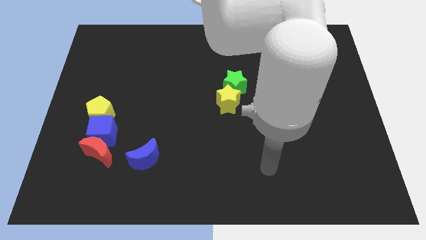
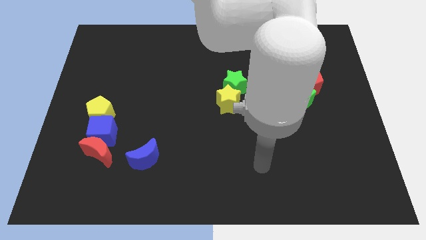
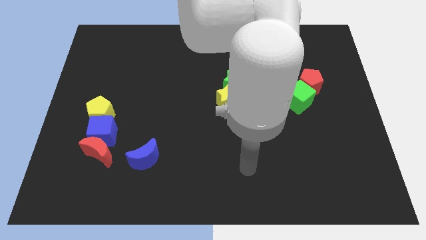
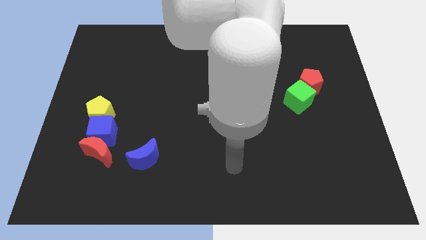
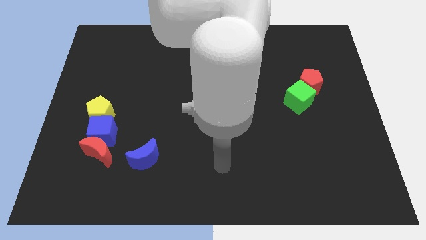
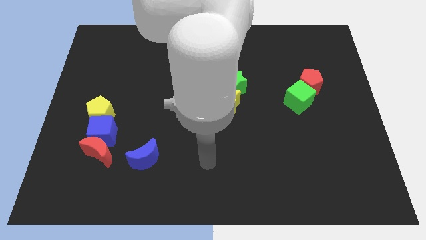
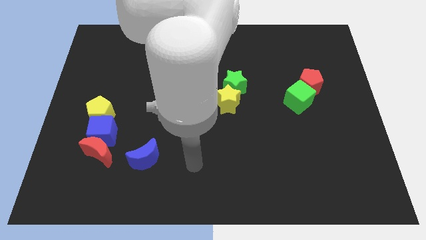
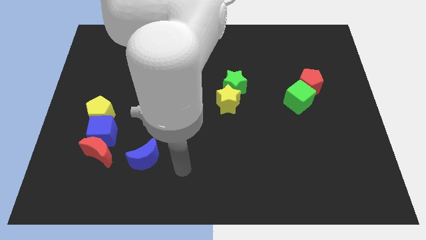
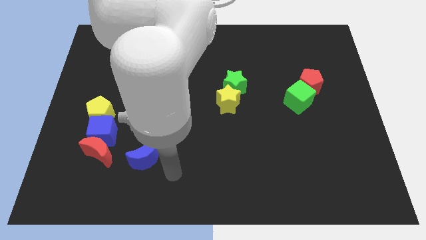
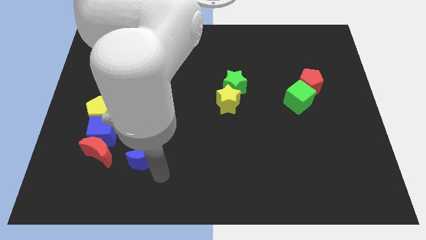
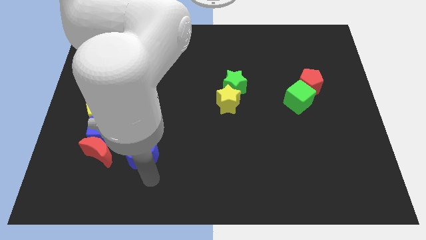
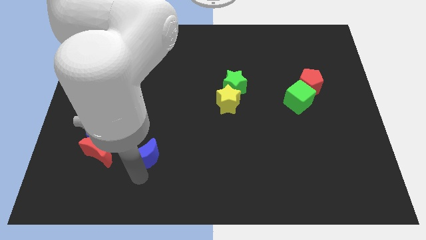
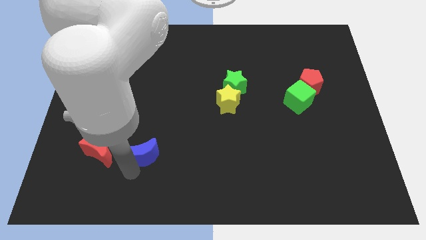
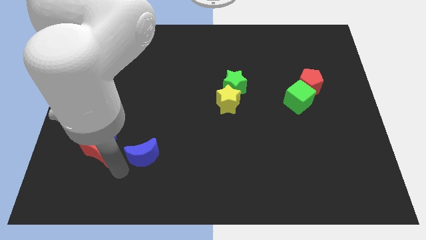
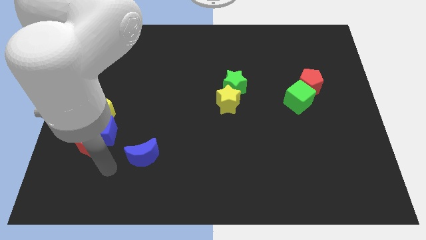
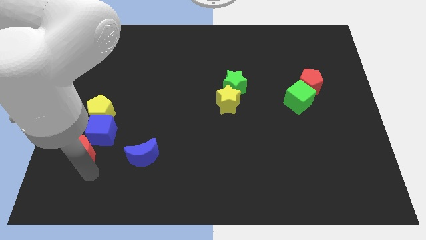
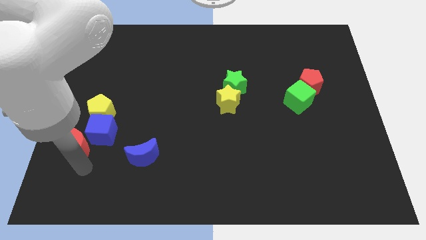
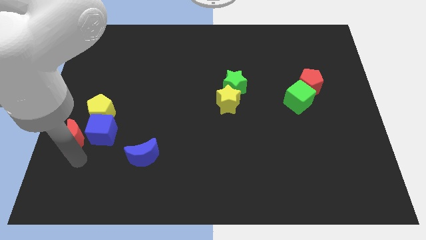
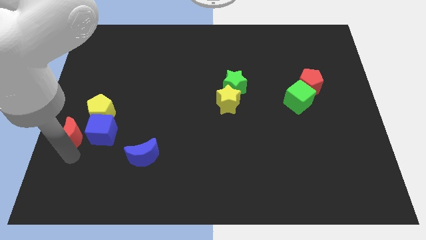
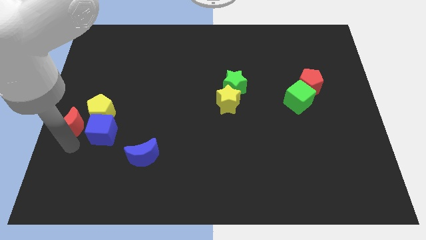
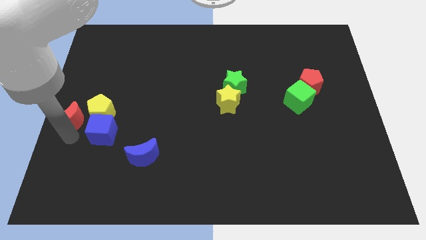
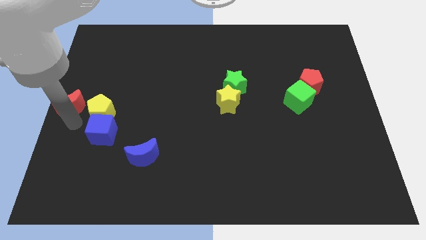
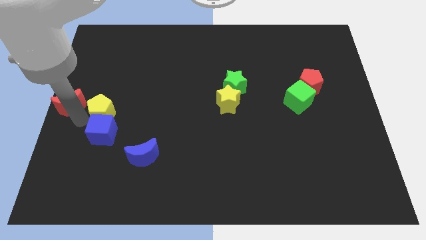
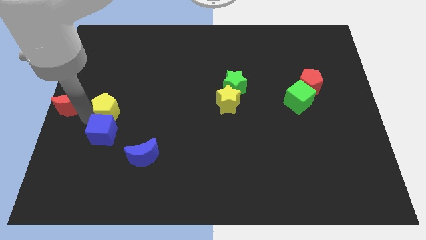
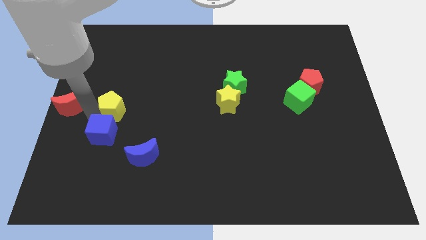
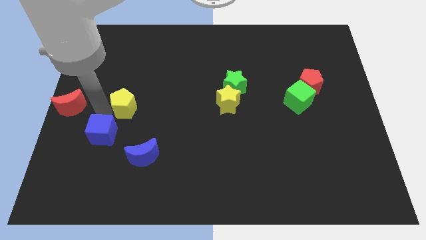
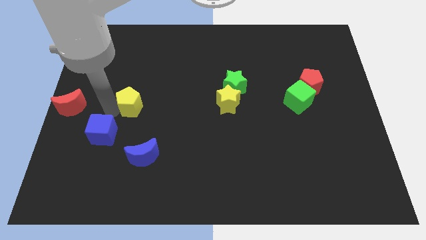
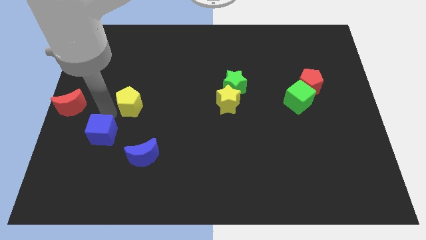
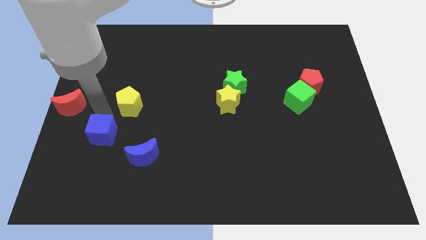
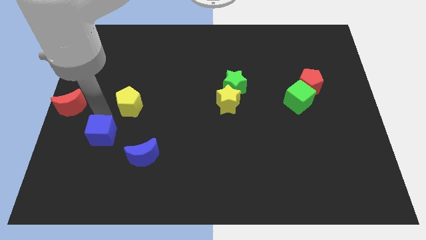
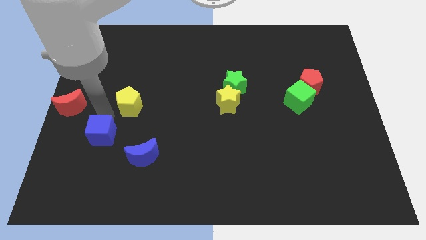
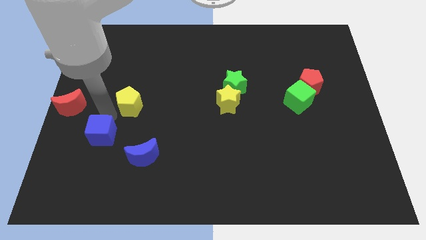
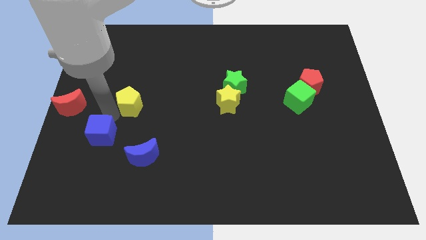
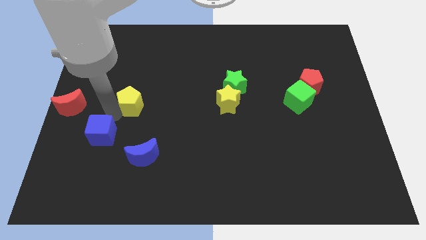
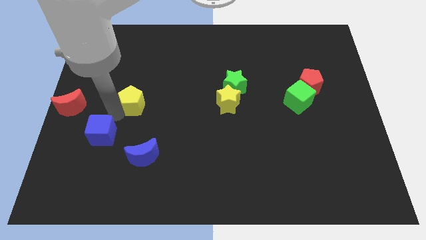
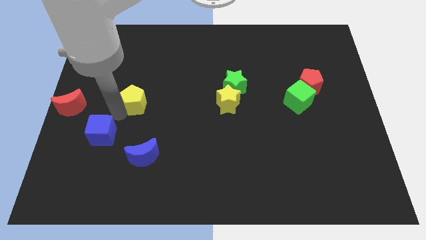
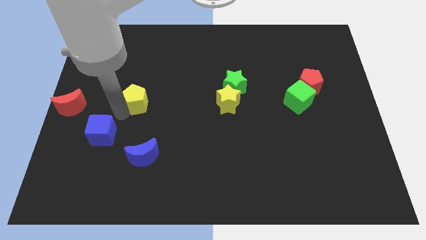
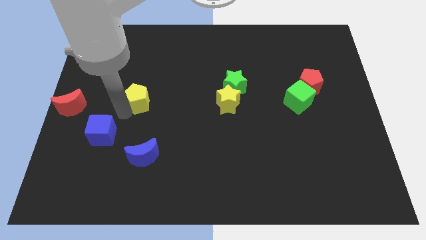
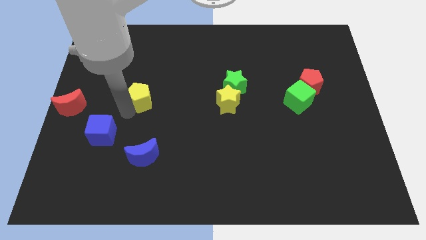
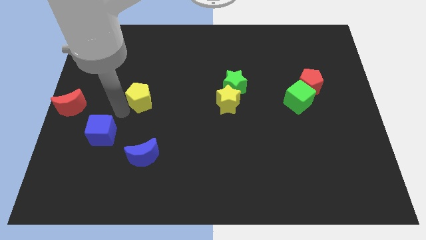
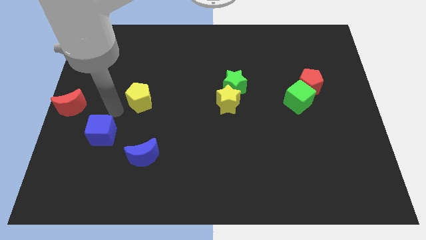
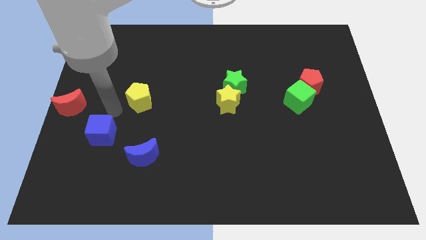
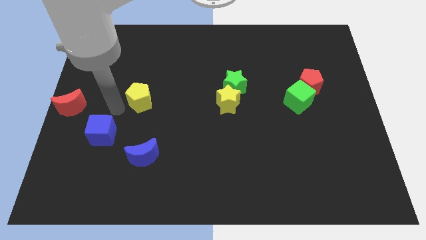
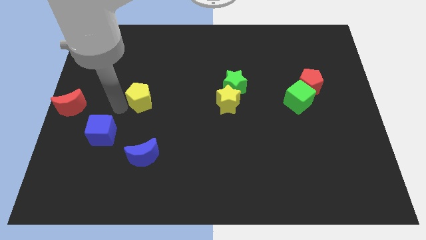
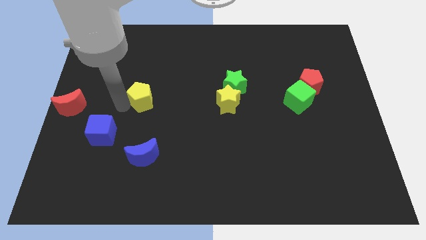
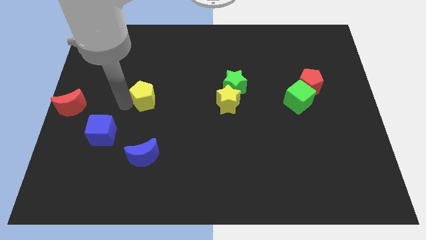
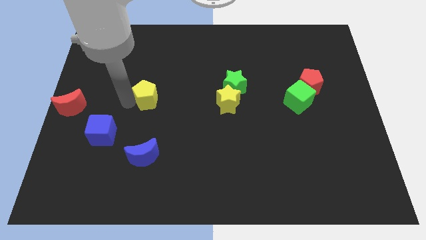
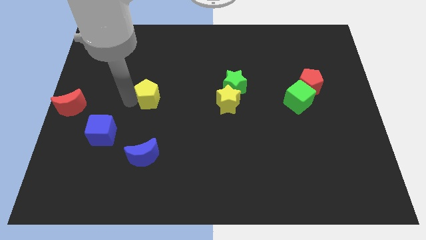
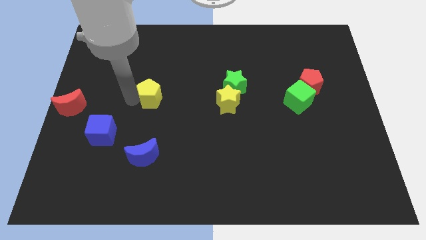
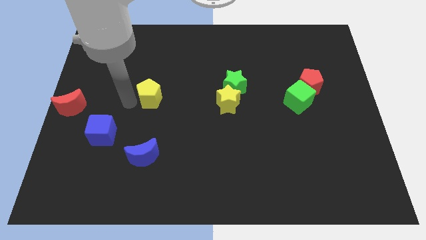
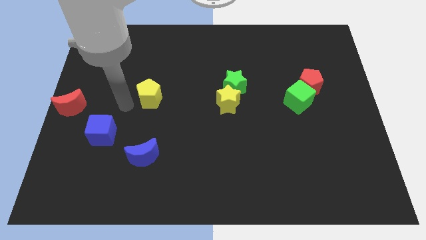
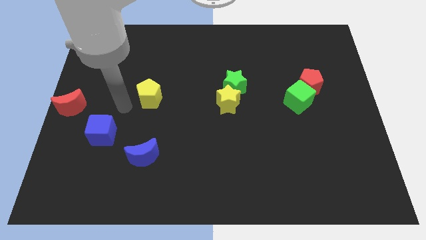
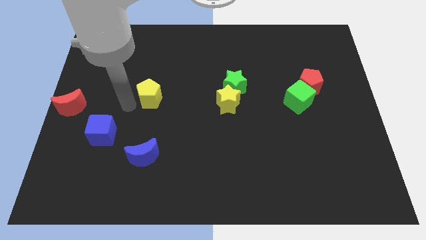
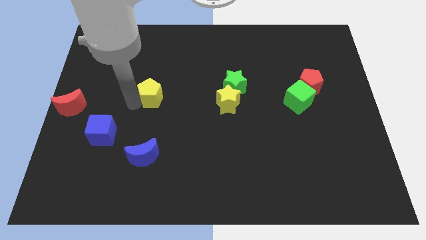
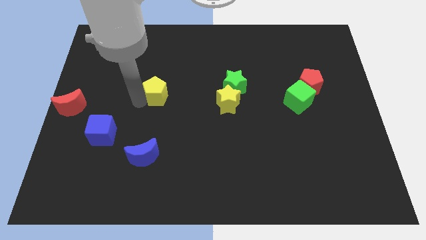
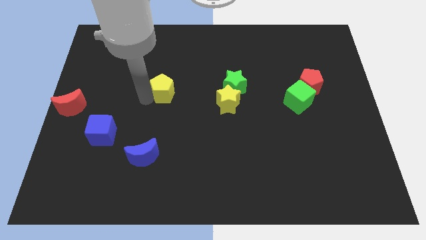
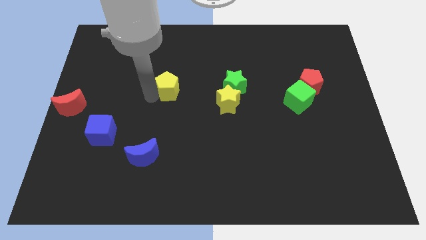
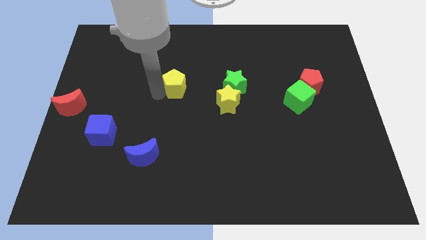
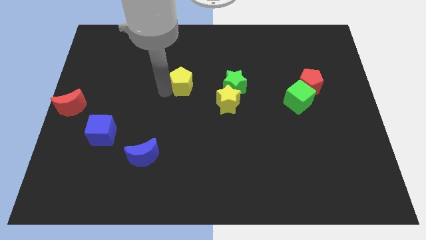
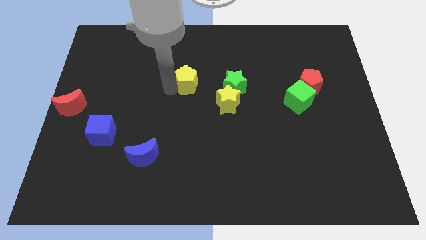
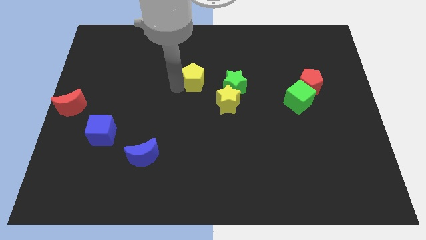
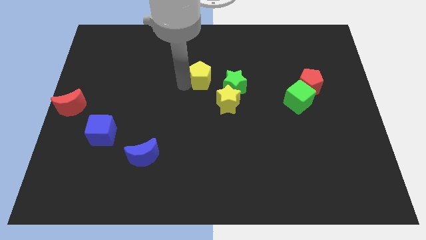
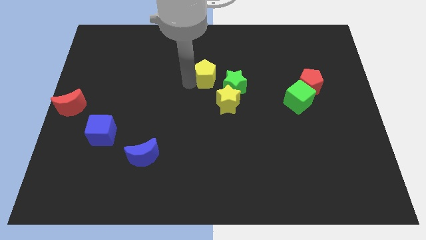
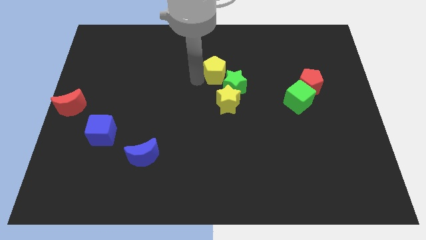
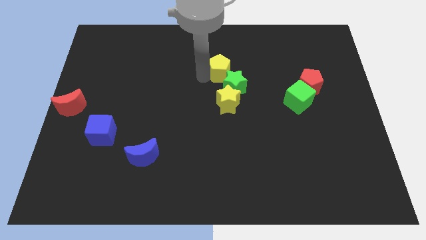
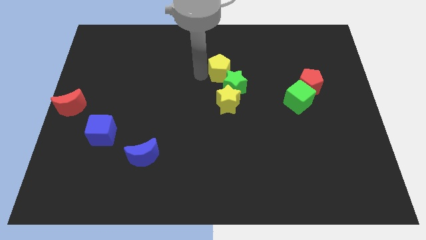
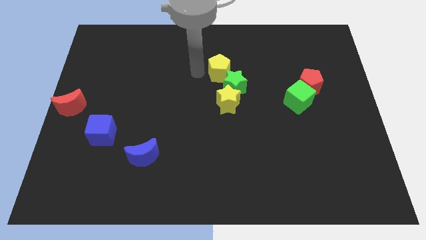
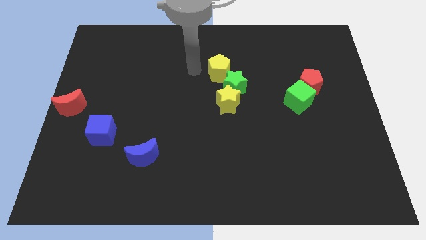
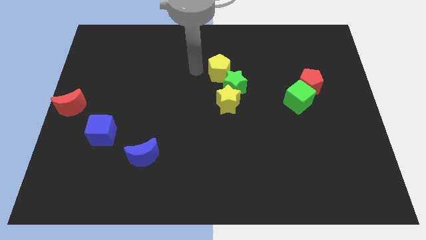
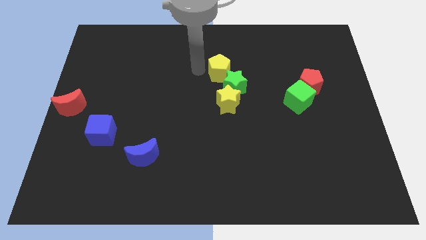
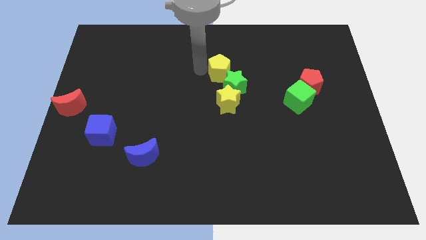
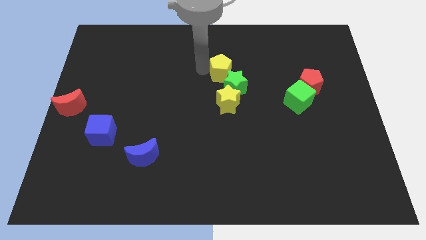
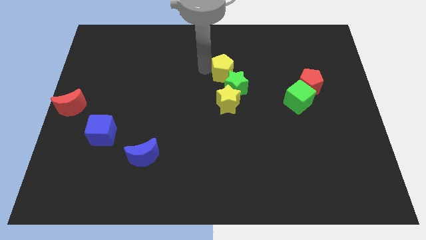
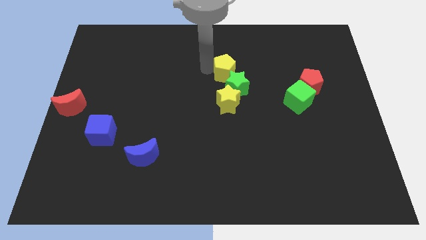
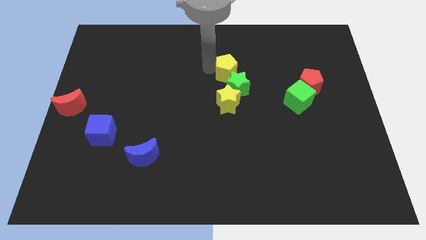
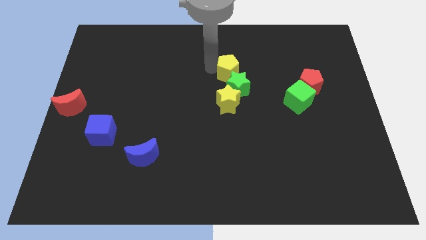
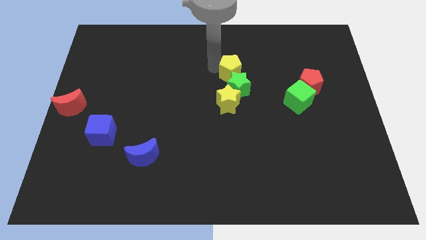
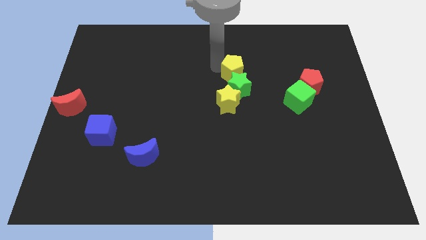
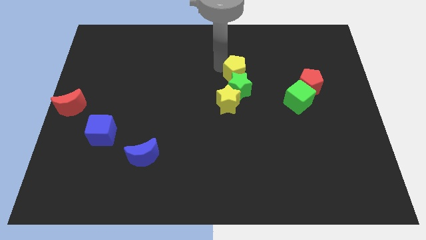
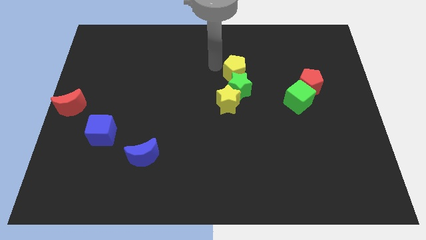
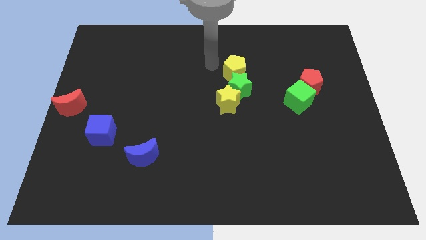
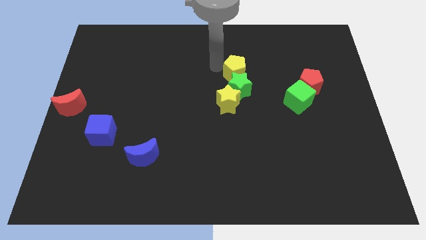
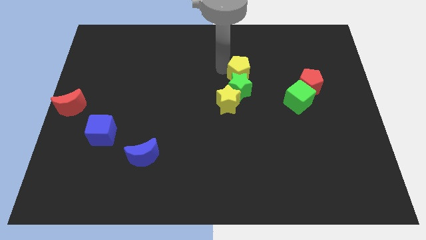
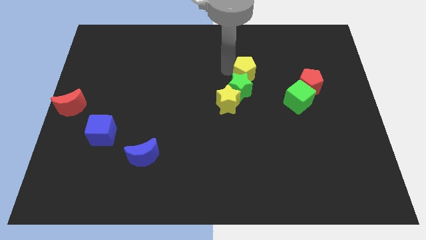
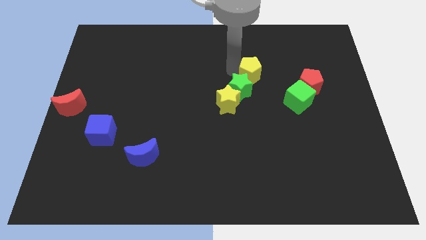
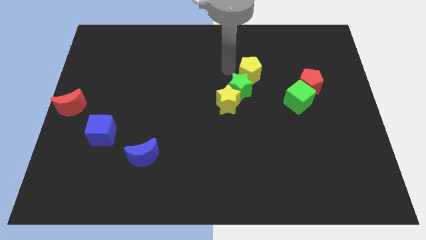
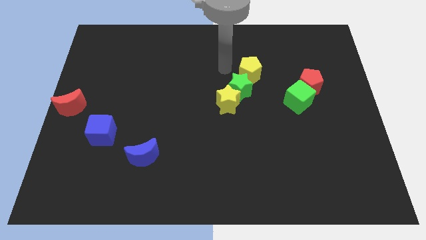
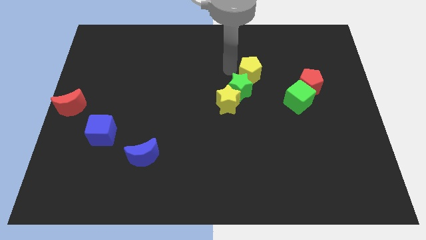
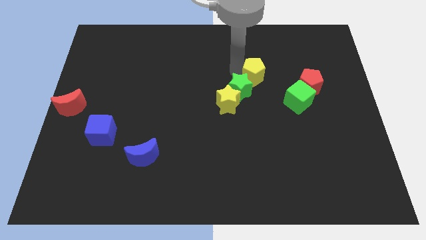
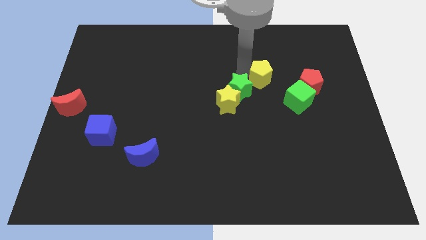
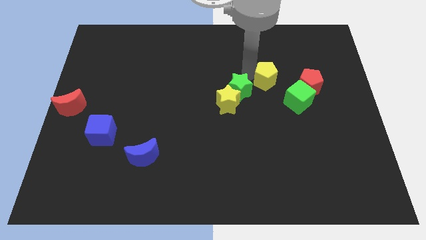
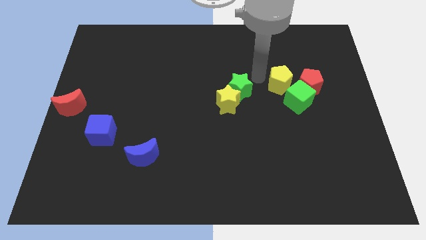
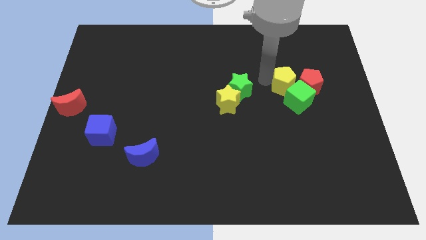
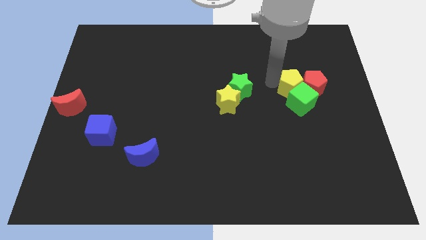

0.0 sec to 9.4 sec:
slide the yellow pentagon to the red pentagon
